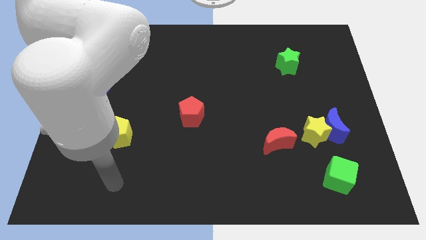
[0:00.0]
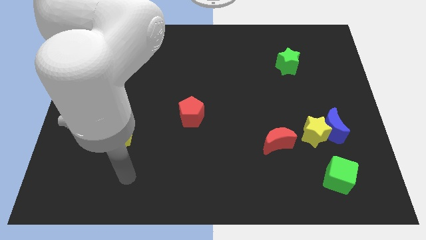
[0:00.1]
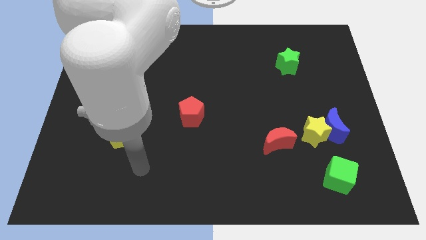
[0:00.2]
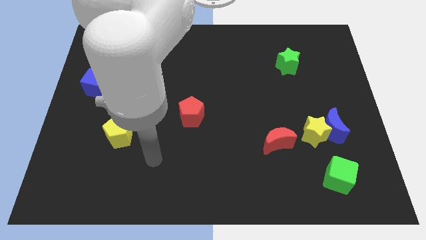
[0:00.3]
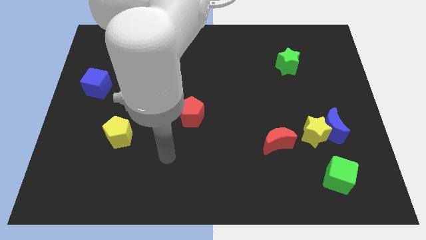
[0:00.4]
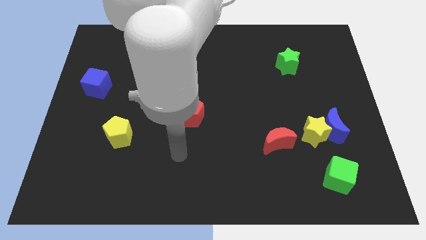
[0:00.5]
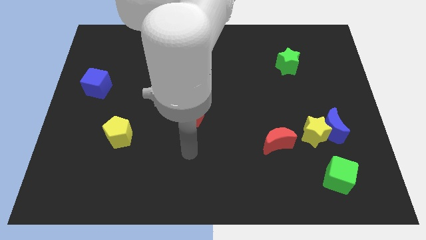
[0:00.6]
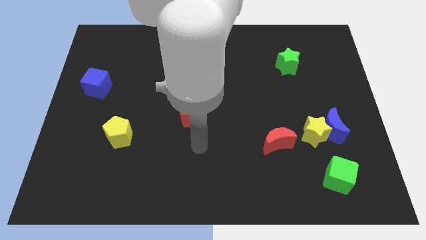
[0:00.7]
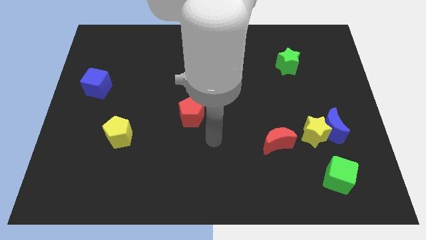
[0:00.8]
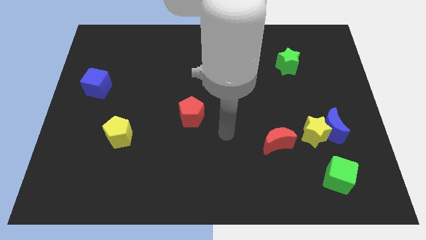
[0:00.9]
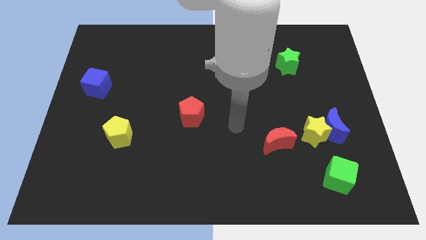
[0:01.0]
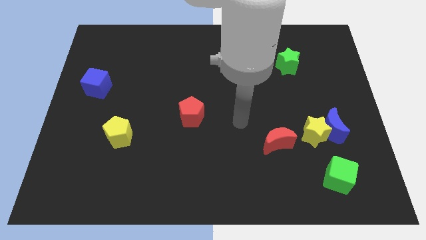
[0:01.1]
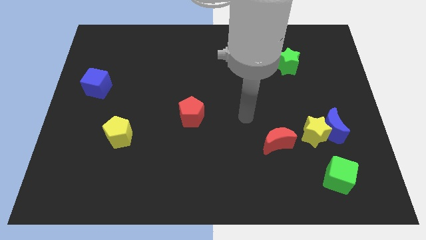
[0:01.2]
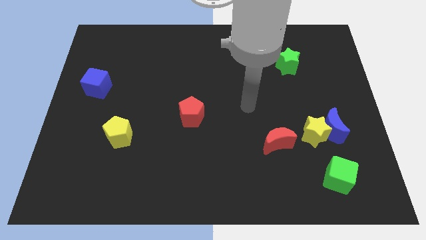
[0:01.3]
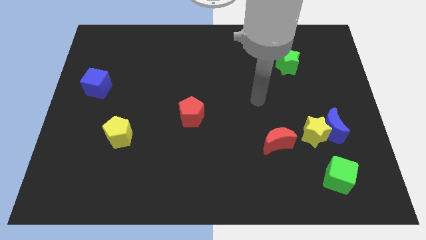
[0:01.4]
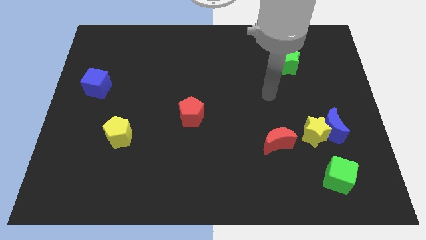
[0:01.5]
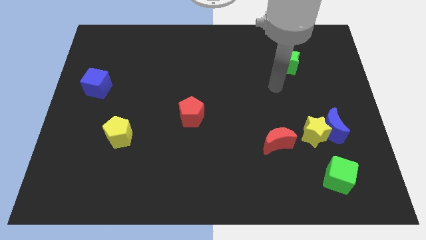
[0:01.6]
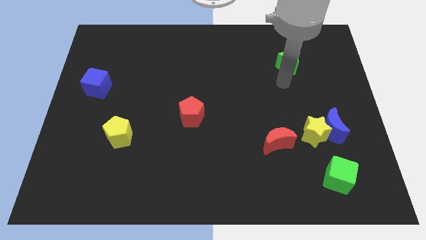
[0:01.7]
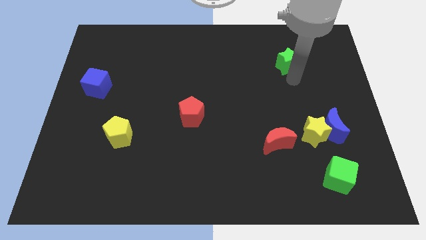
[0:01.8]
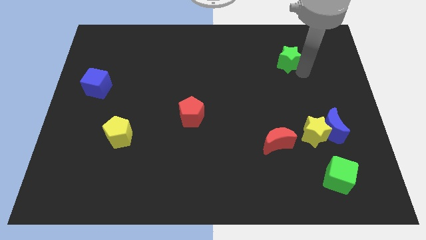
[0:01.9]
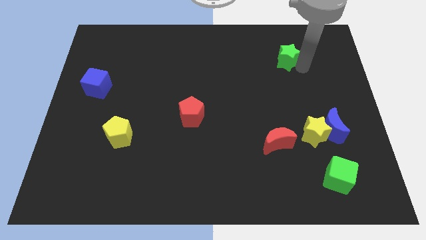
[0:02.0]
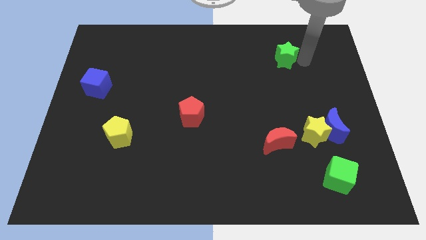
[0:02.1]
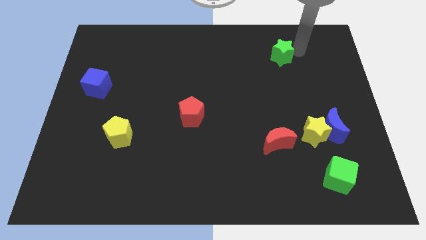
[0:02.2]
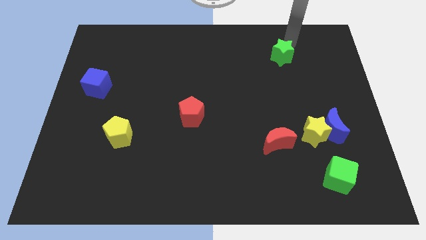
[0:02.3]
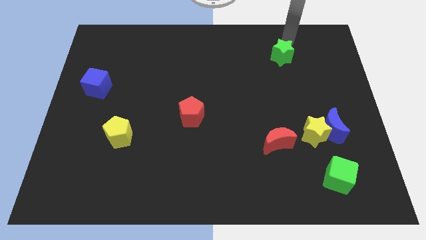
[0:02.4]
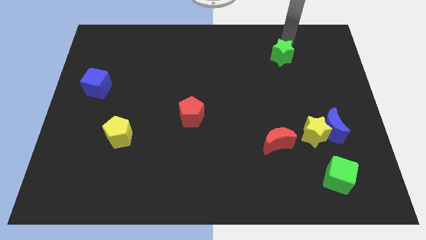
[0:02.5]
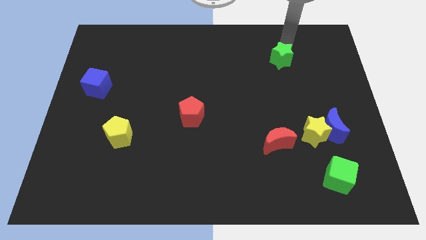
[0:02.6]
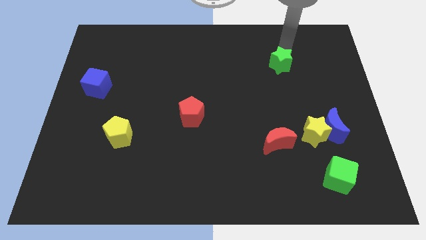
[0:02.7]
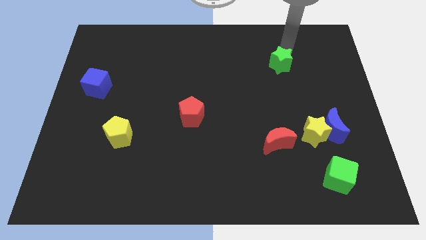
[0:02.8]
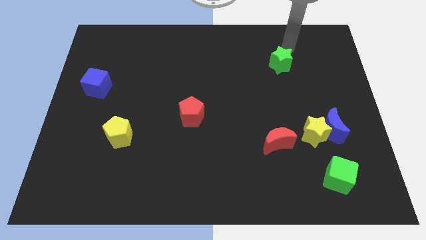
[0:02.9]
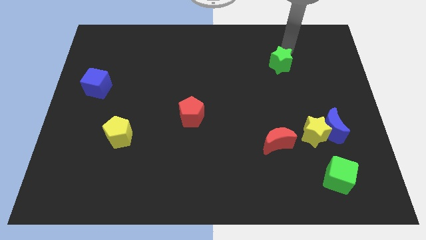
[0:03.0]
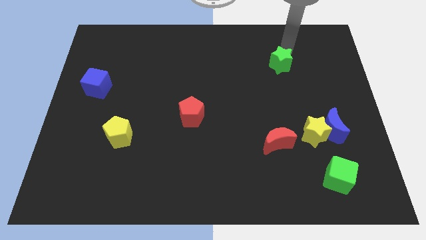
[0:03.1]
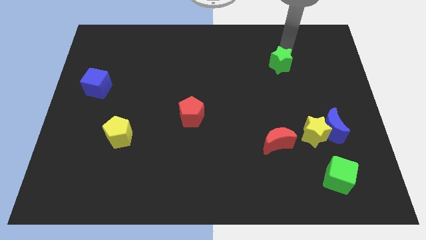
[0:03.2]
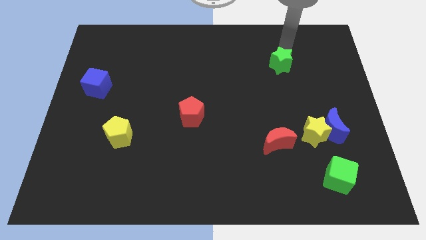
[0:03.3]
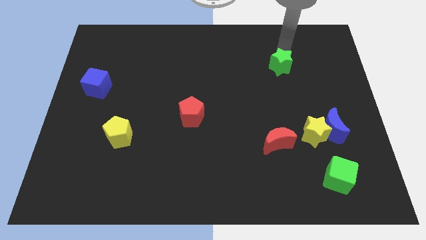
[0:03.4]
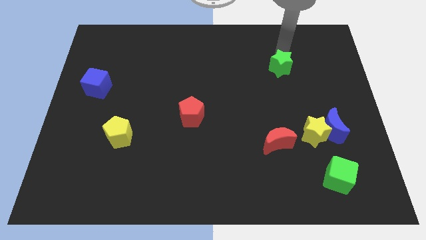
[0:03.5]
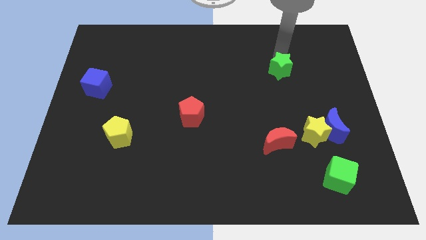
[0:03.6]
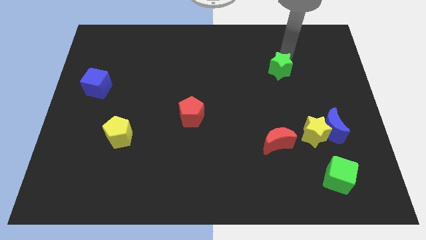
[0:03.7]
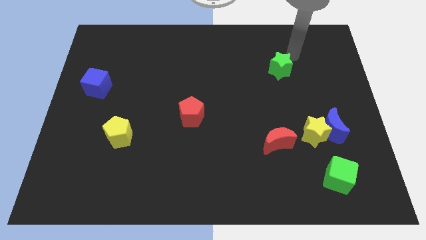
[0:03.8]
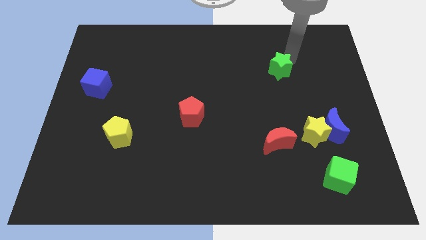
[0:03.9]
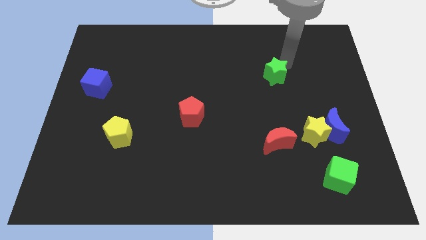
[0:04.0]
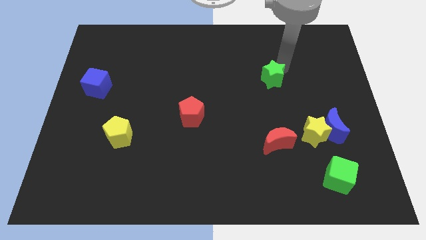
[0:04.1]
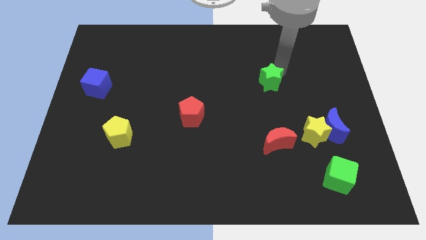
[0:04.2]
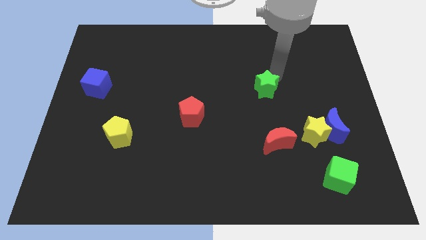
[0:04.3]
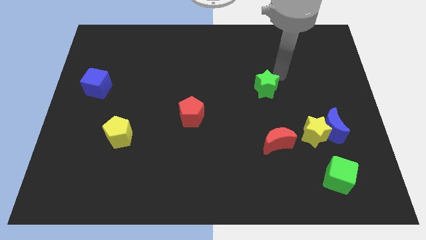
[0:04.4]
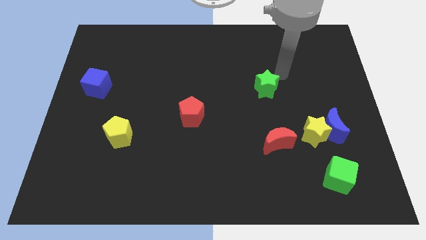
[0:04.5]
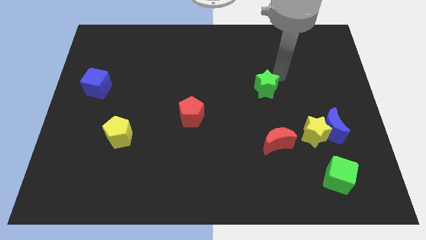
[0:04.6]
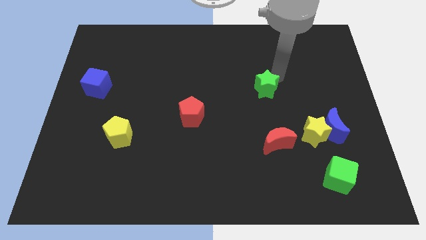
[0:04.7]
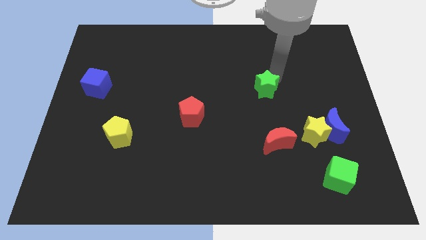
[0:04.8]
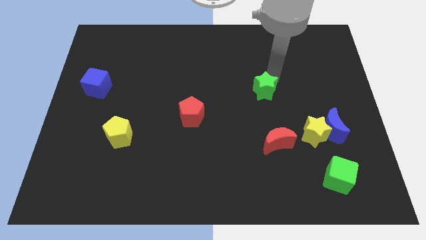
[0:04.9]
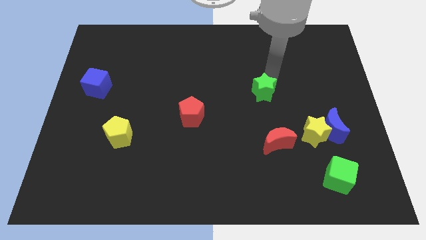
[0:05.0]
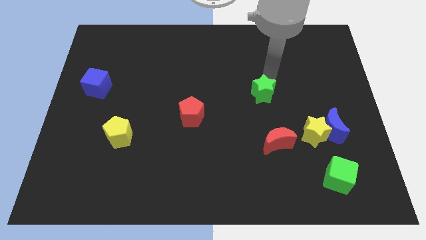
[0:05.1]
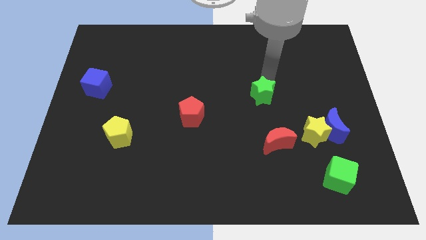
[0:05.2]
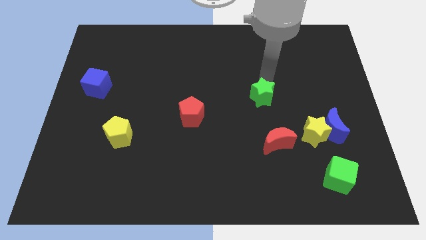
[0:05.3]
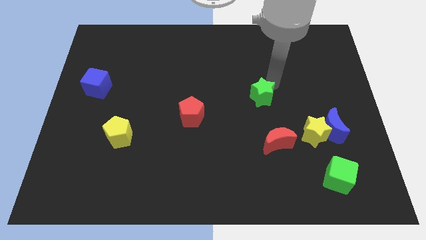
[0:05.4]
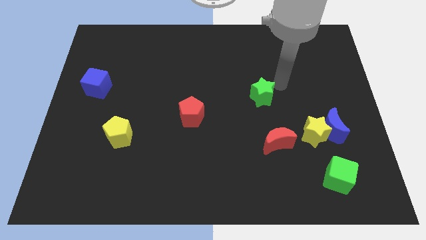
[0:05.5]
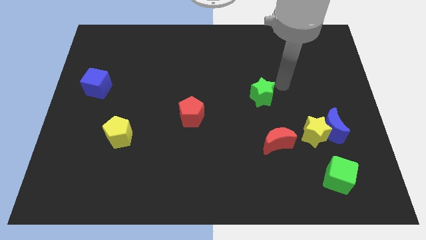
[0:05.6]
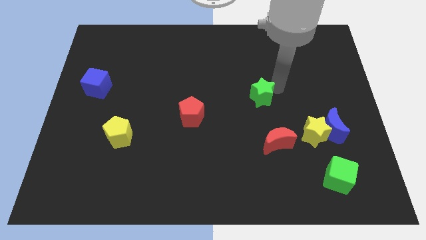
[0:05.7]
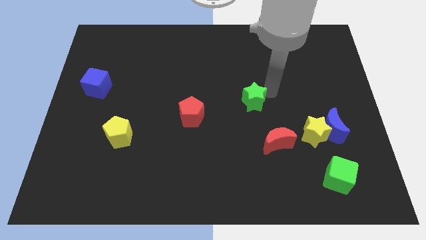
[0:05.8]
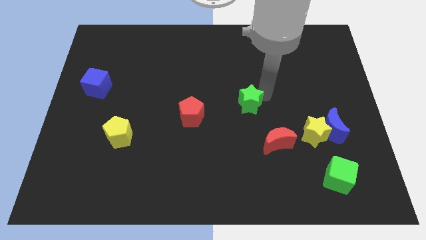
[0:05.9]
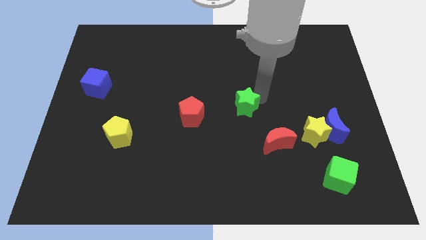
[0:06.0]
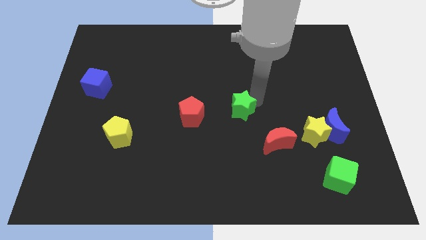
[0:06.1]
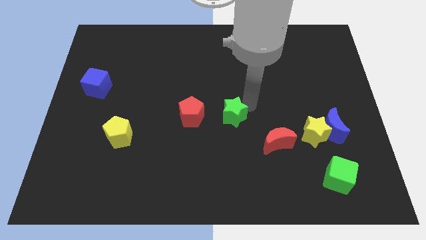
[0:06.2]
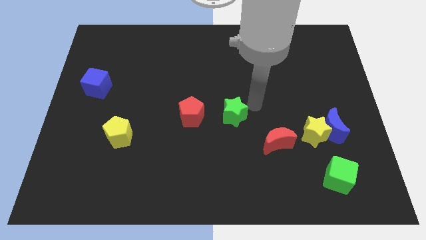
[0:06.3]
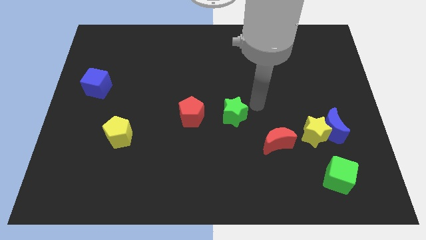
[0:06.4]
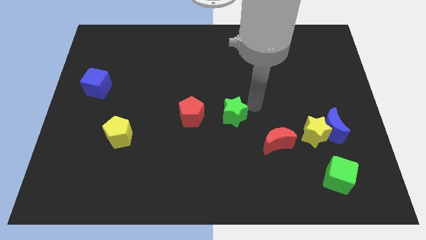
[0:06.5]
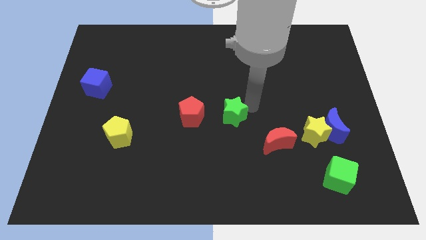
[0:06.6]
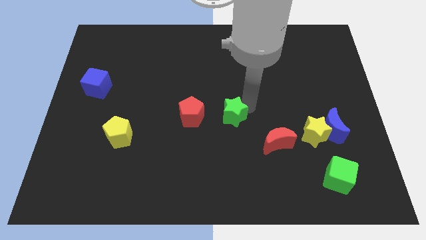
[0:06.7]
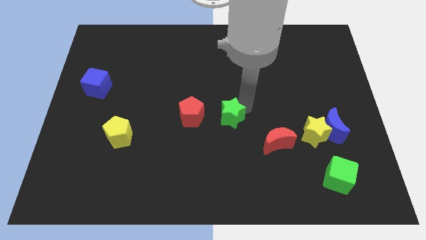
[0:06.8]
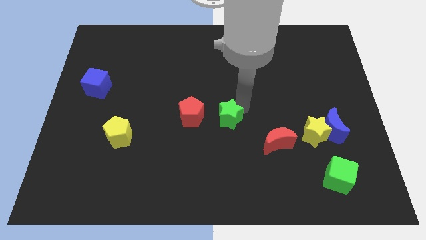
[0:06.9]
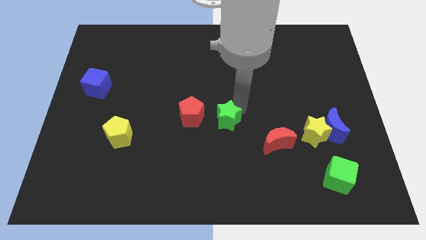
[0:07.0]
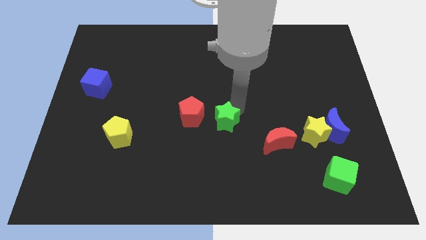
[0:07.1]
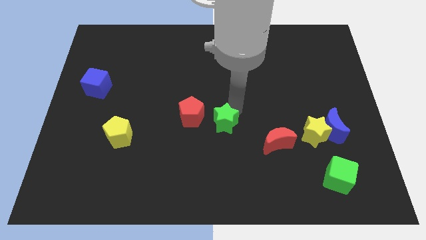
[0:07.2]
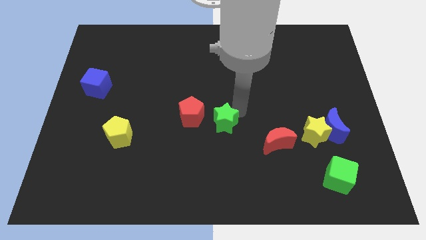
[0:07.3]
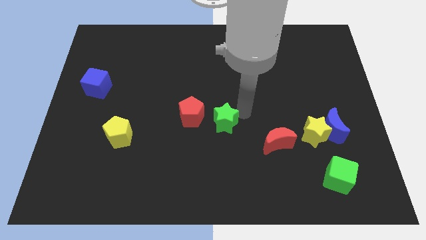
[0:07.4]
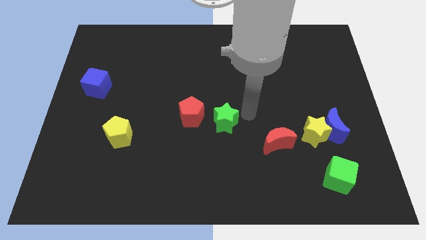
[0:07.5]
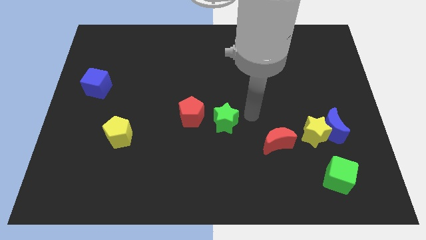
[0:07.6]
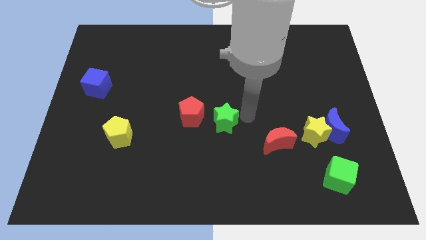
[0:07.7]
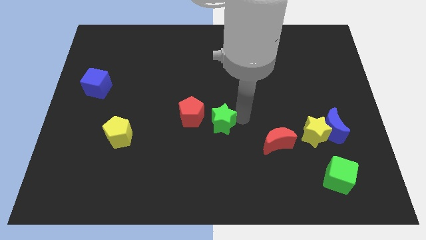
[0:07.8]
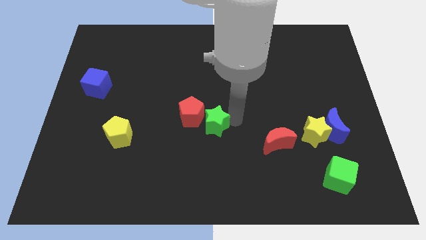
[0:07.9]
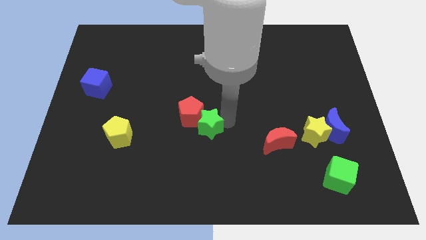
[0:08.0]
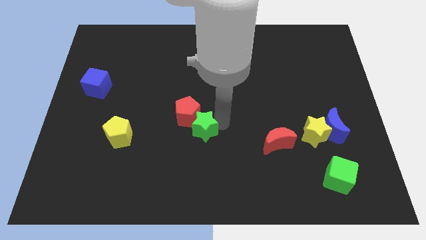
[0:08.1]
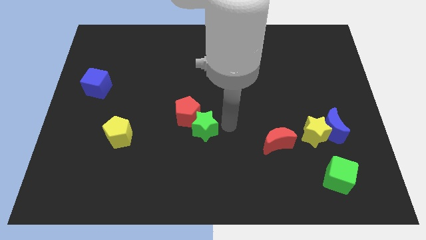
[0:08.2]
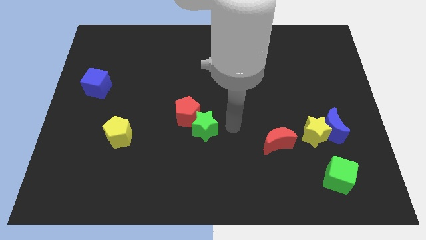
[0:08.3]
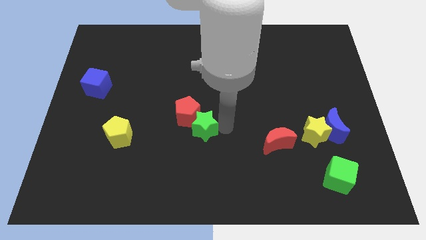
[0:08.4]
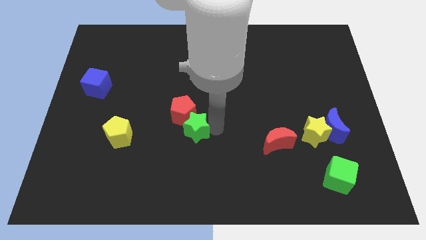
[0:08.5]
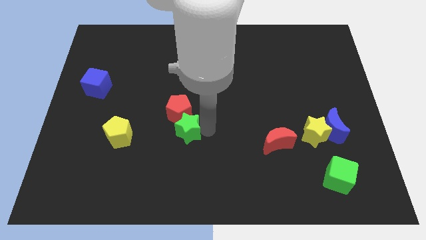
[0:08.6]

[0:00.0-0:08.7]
push the green star just right of the yellow pentagon
